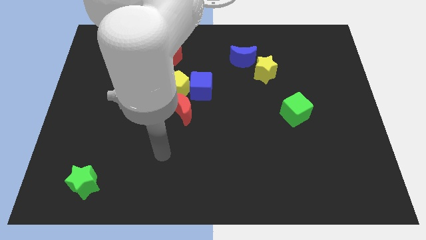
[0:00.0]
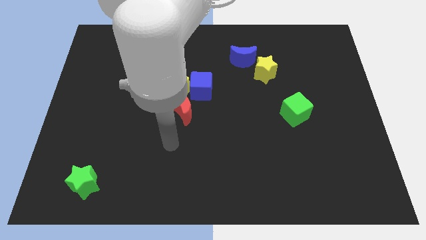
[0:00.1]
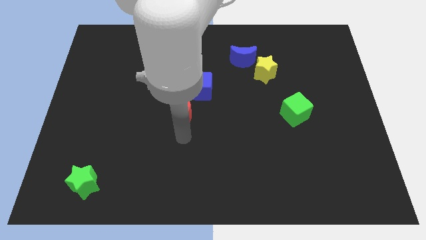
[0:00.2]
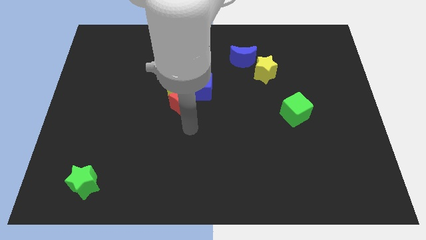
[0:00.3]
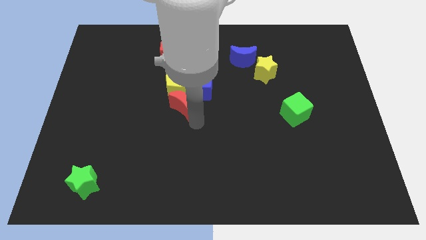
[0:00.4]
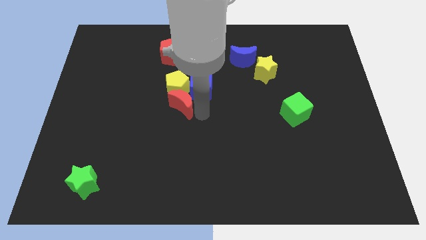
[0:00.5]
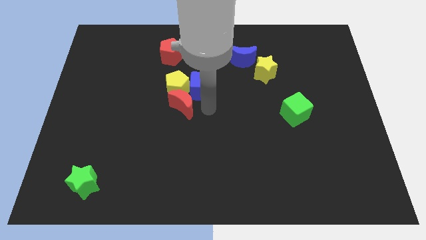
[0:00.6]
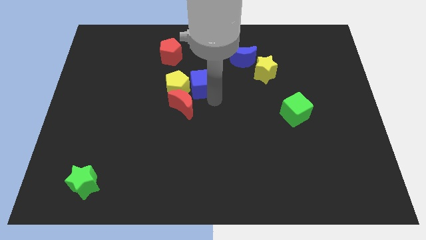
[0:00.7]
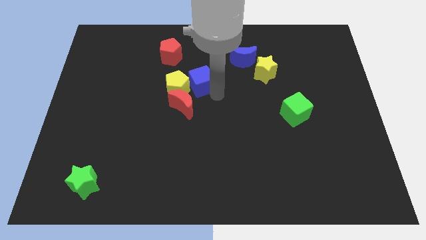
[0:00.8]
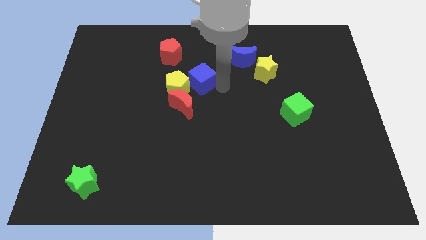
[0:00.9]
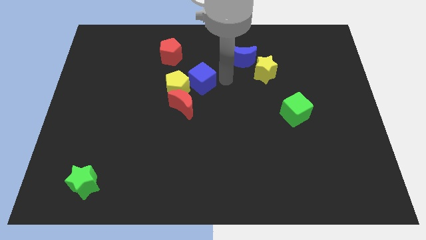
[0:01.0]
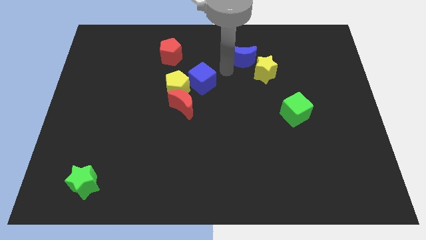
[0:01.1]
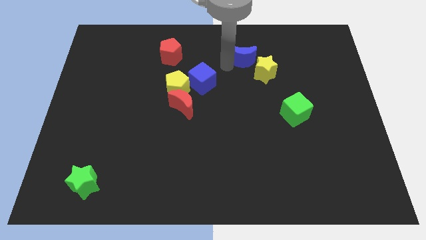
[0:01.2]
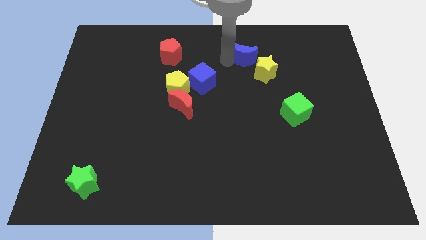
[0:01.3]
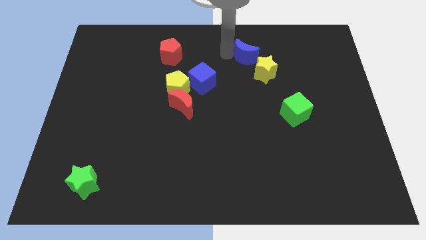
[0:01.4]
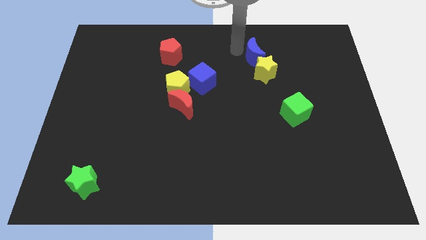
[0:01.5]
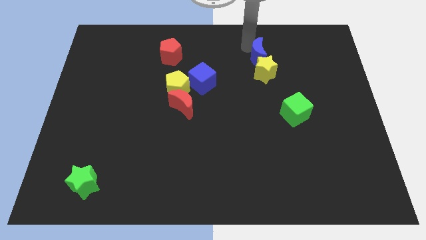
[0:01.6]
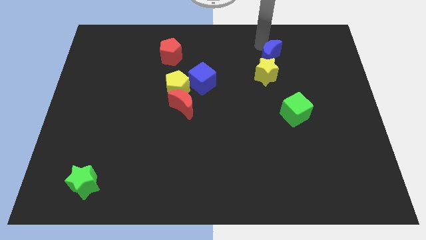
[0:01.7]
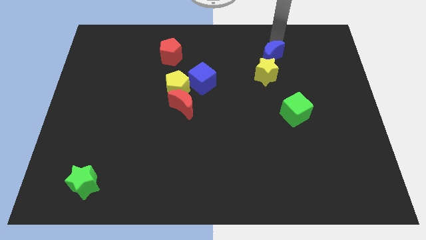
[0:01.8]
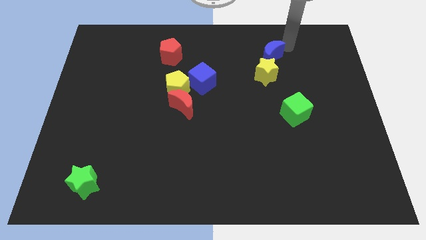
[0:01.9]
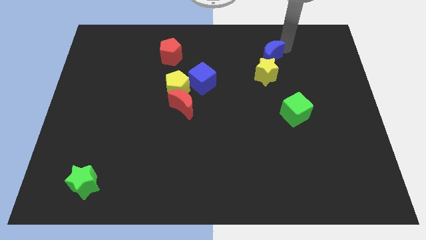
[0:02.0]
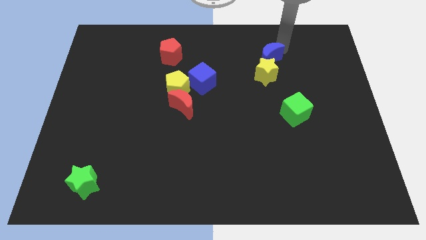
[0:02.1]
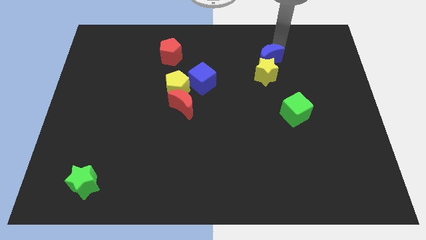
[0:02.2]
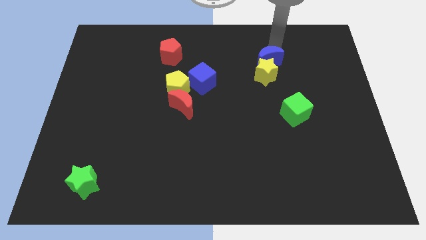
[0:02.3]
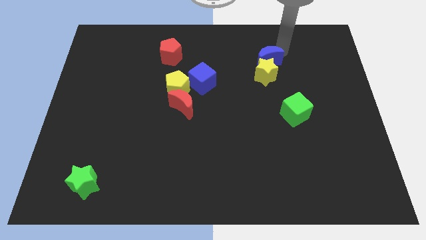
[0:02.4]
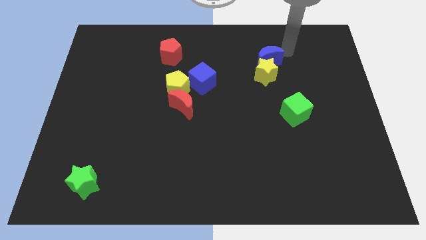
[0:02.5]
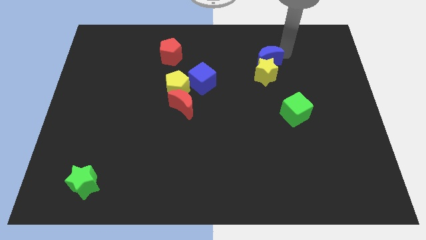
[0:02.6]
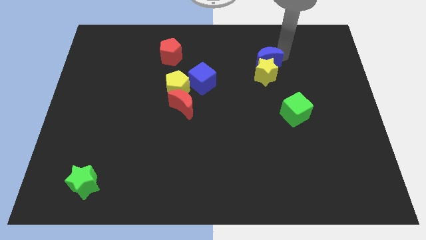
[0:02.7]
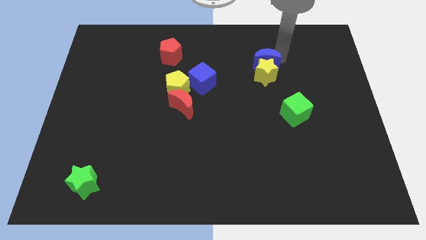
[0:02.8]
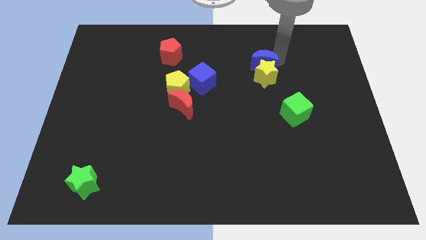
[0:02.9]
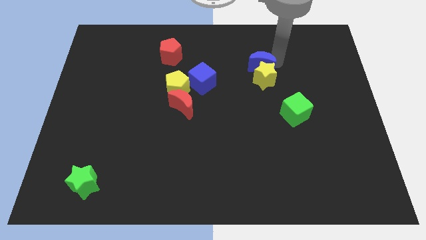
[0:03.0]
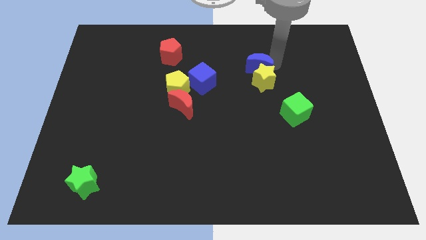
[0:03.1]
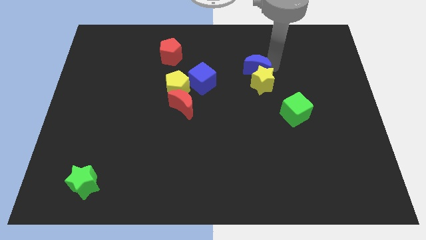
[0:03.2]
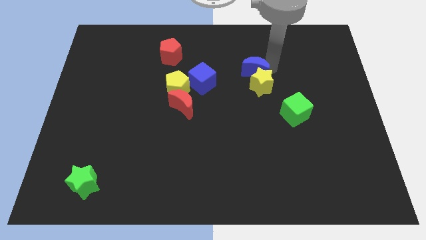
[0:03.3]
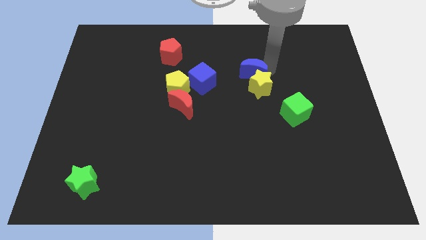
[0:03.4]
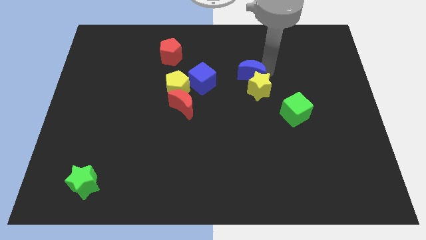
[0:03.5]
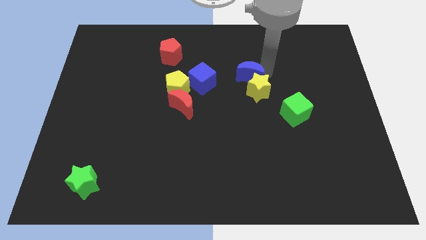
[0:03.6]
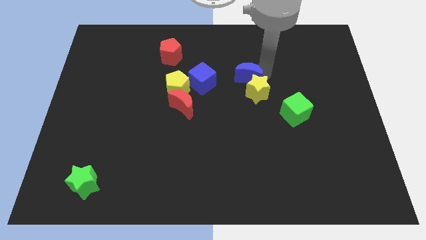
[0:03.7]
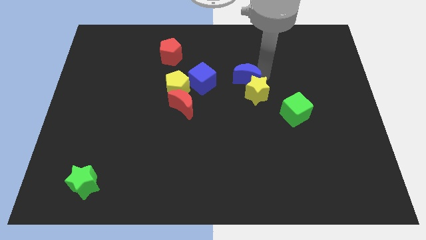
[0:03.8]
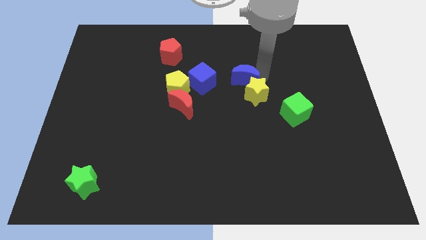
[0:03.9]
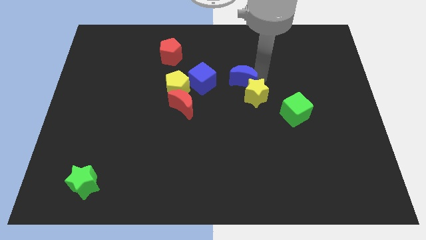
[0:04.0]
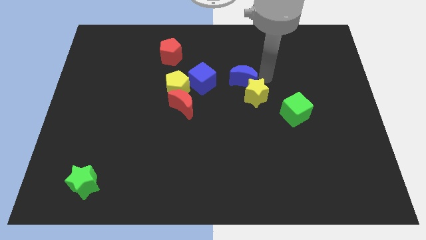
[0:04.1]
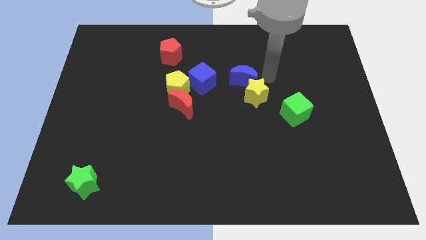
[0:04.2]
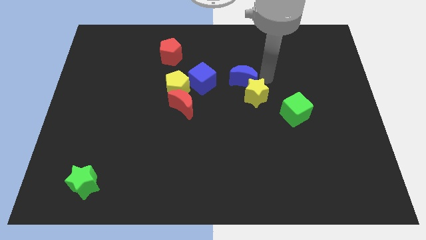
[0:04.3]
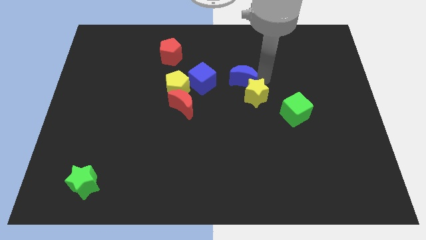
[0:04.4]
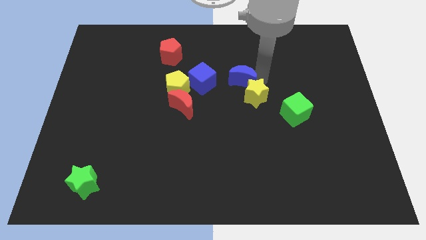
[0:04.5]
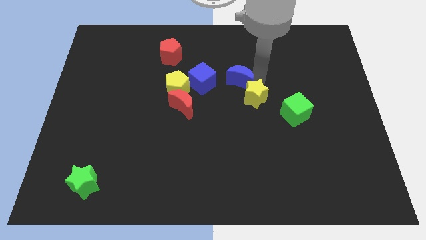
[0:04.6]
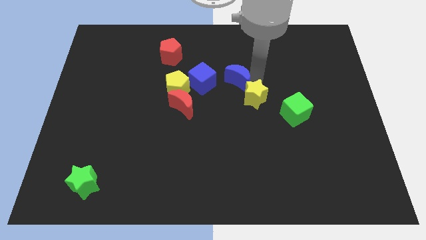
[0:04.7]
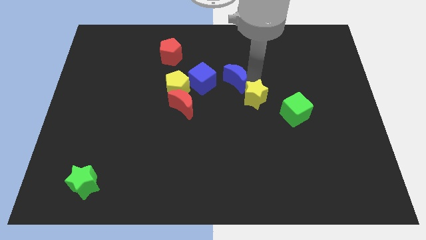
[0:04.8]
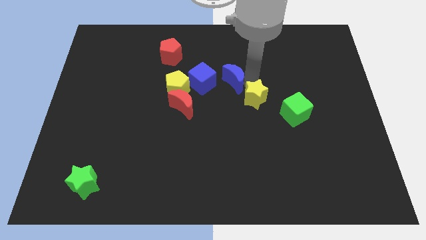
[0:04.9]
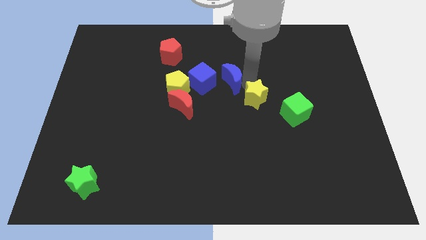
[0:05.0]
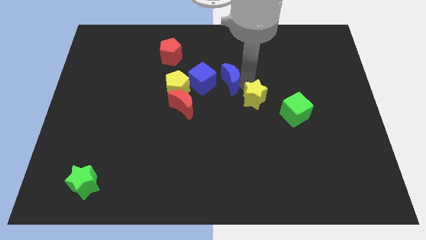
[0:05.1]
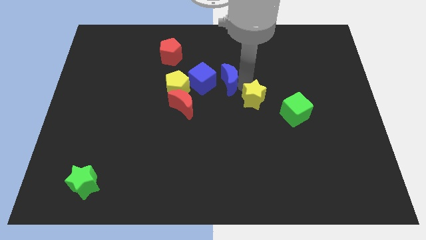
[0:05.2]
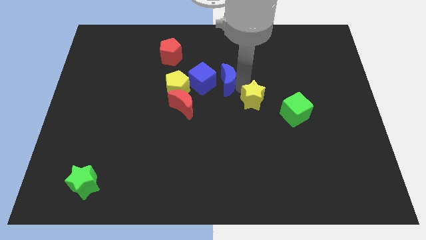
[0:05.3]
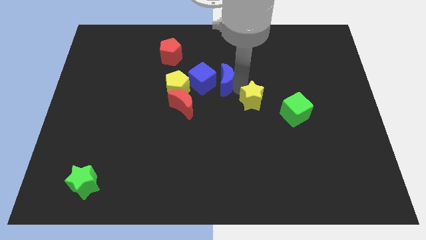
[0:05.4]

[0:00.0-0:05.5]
put the blue moon close to the blue cube

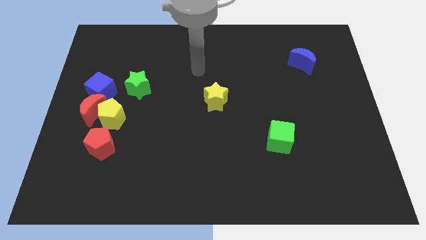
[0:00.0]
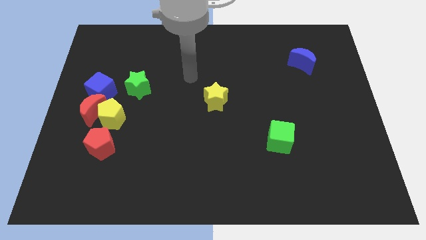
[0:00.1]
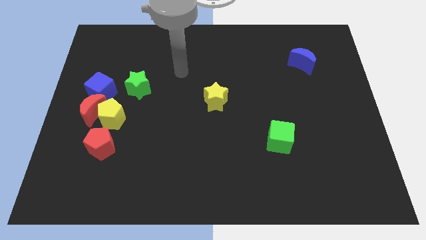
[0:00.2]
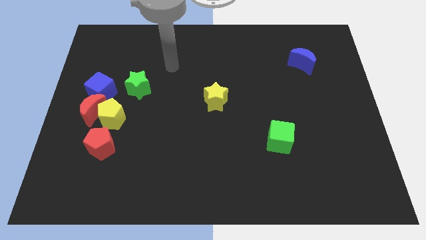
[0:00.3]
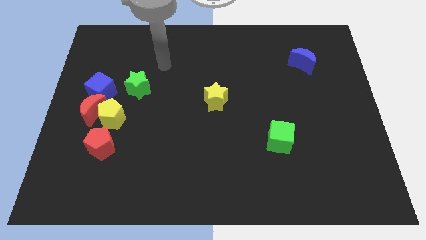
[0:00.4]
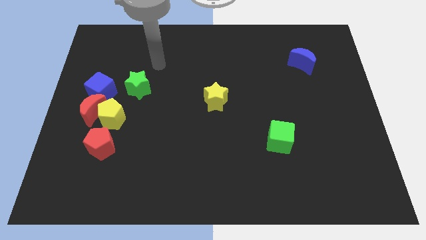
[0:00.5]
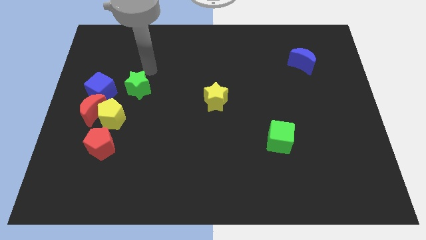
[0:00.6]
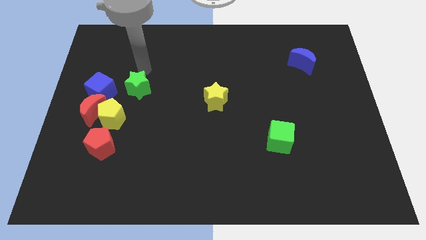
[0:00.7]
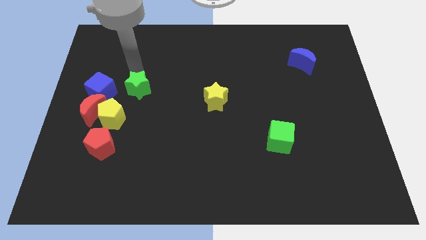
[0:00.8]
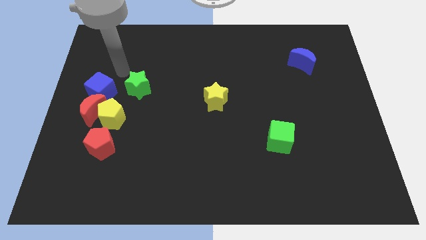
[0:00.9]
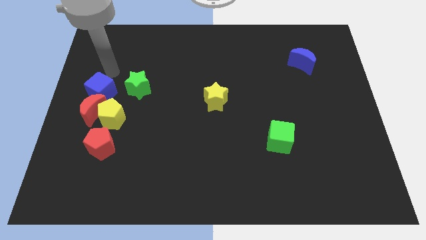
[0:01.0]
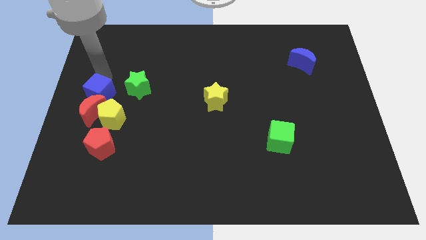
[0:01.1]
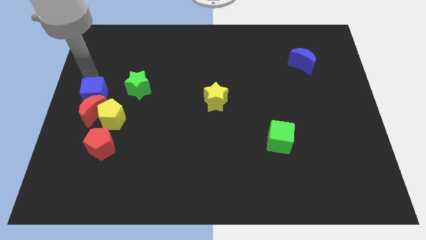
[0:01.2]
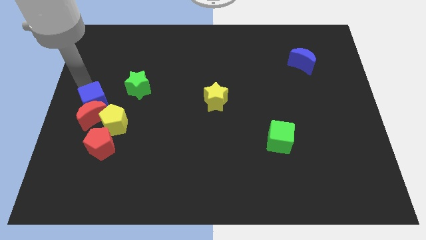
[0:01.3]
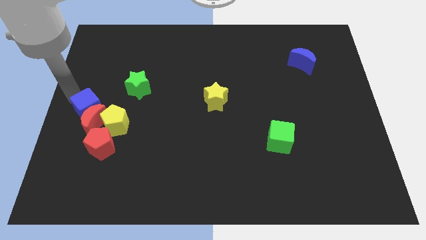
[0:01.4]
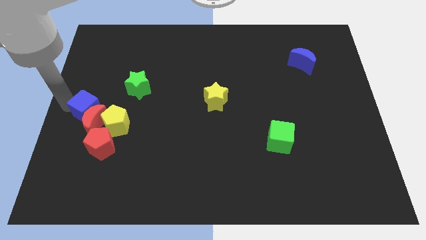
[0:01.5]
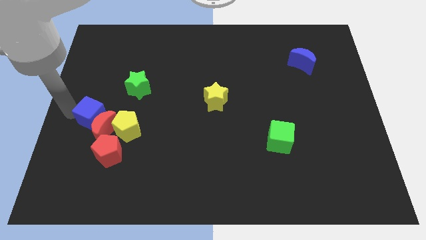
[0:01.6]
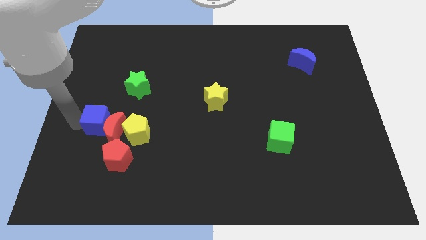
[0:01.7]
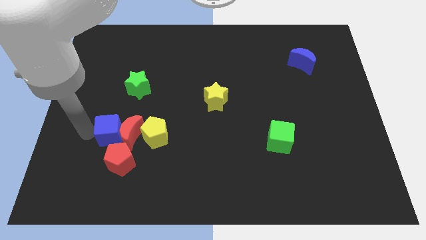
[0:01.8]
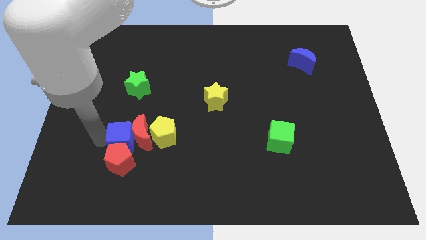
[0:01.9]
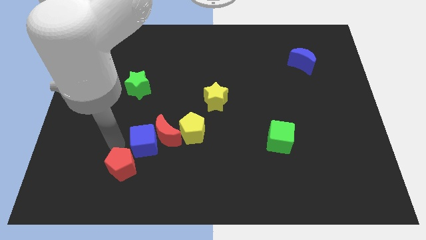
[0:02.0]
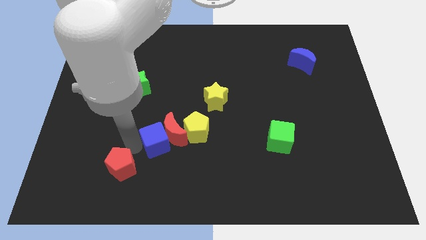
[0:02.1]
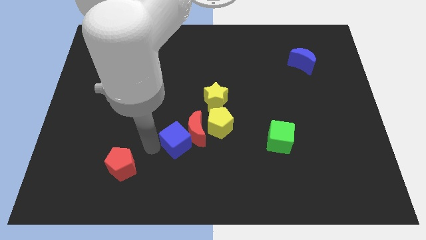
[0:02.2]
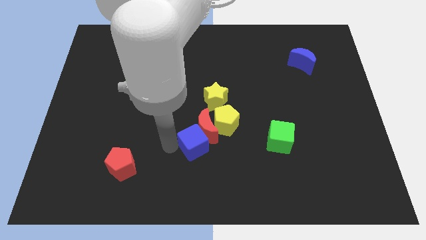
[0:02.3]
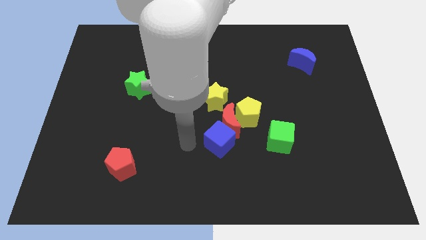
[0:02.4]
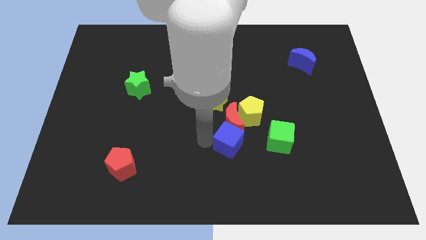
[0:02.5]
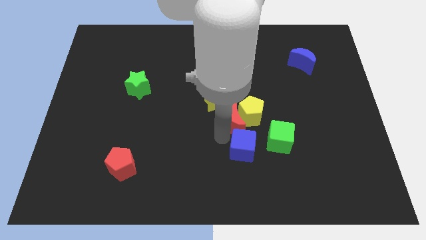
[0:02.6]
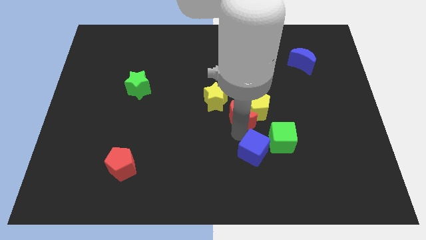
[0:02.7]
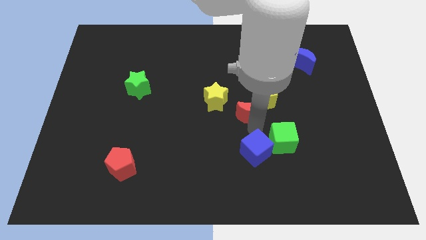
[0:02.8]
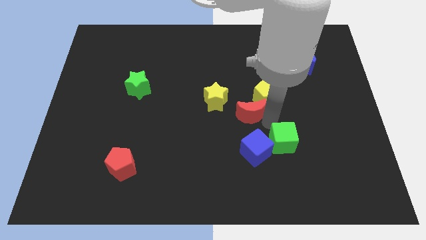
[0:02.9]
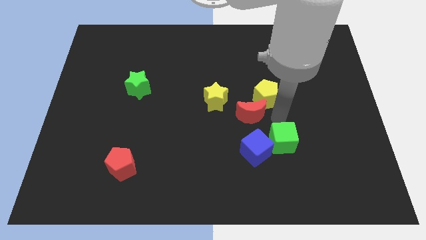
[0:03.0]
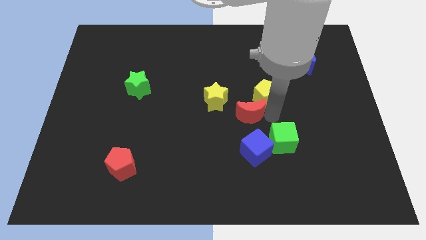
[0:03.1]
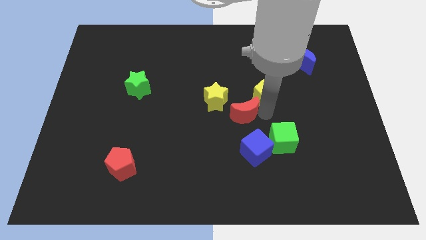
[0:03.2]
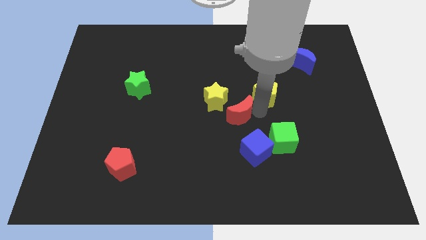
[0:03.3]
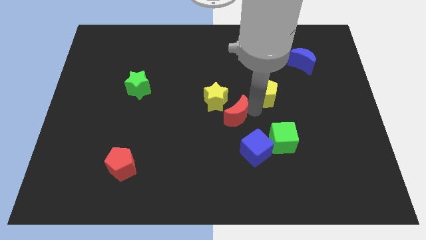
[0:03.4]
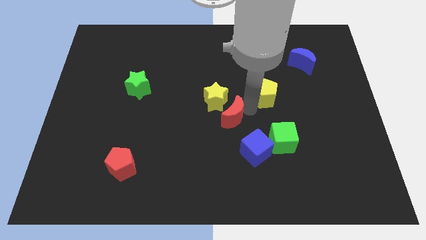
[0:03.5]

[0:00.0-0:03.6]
put the red moon next to the yellow star
